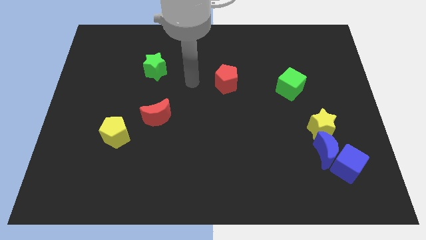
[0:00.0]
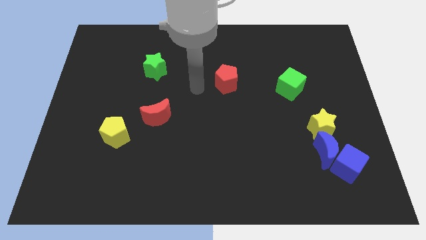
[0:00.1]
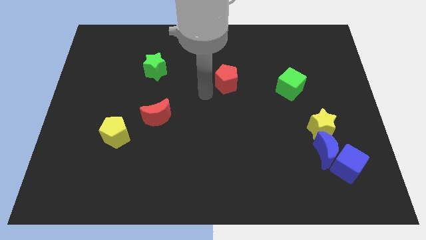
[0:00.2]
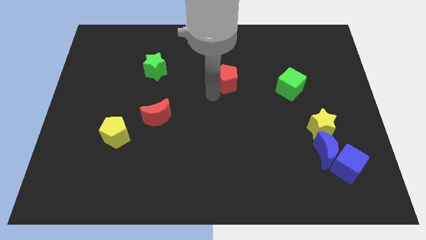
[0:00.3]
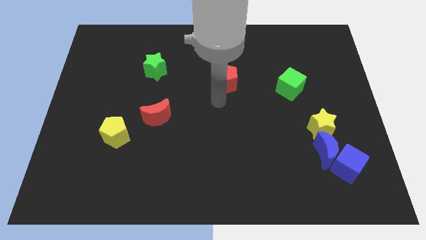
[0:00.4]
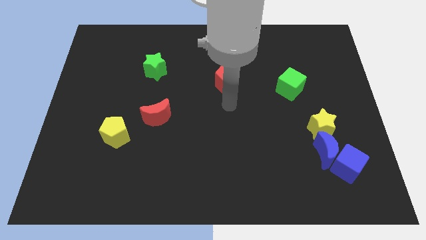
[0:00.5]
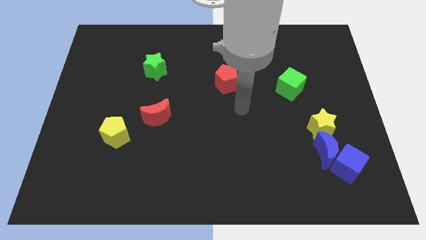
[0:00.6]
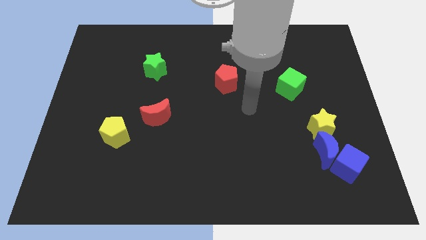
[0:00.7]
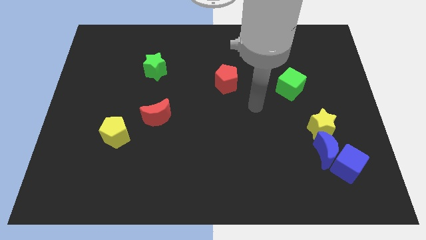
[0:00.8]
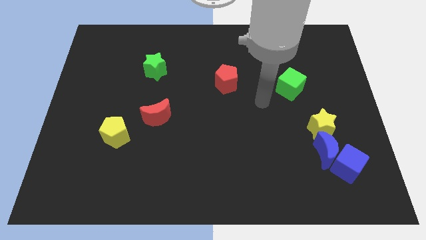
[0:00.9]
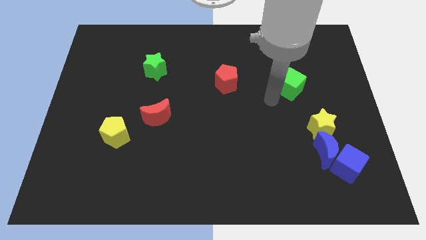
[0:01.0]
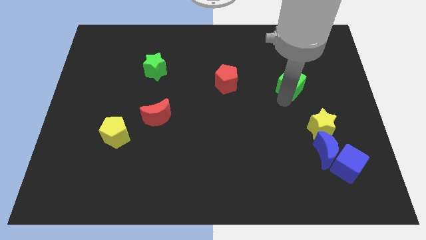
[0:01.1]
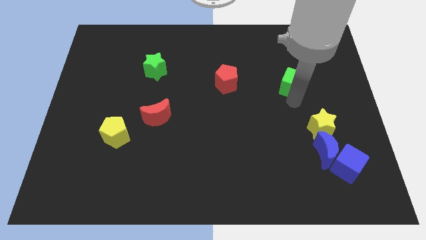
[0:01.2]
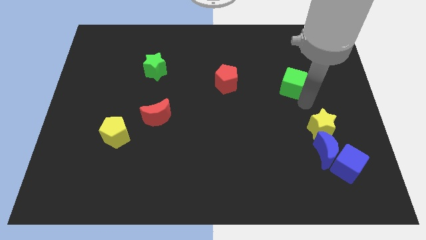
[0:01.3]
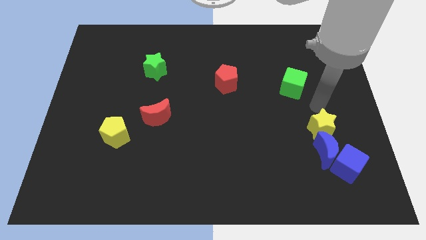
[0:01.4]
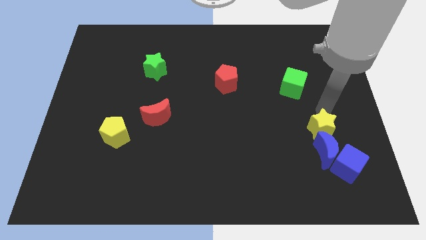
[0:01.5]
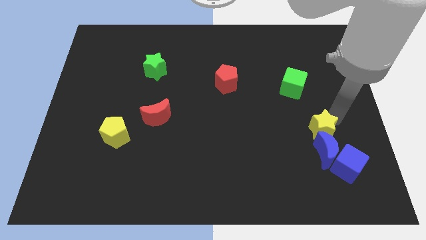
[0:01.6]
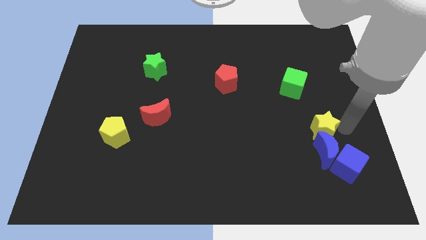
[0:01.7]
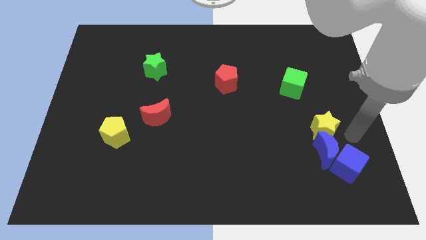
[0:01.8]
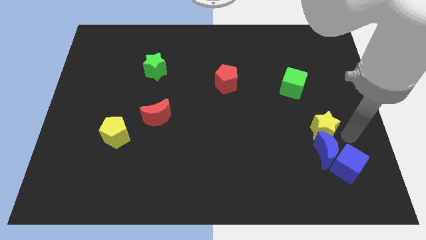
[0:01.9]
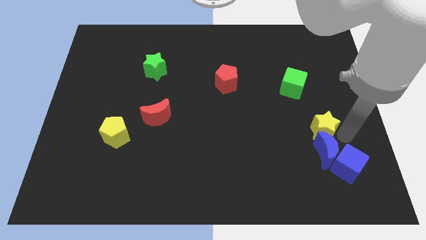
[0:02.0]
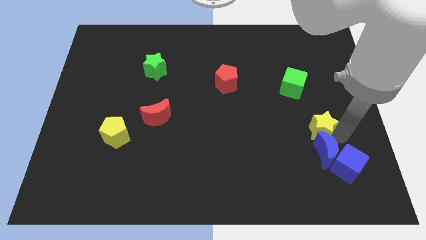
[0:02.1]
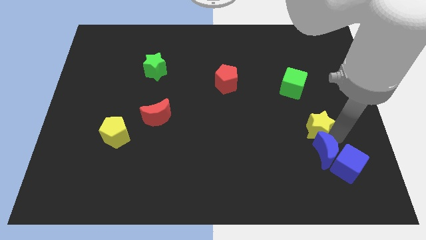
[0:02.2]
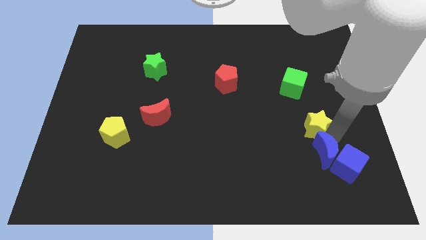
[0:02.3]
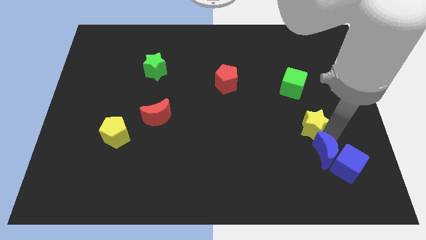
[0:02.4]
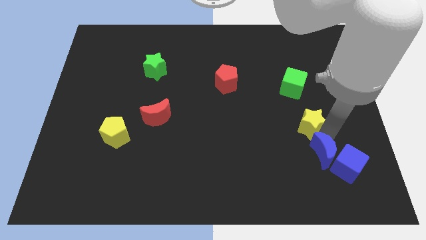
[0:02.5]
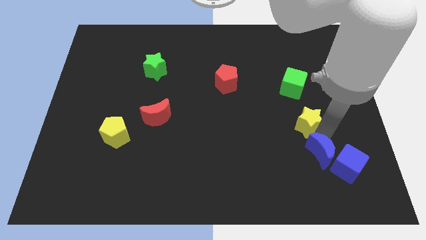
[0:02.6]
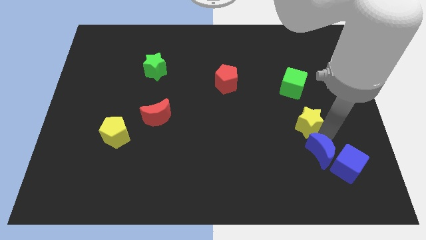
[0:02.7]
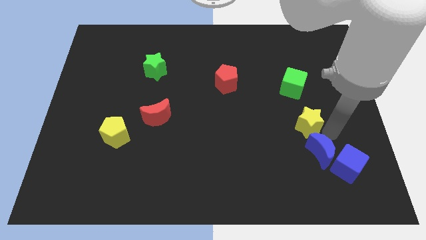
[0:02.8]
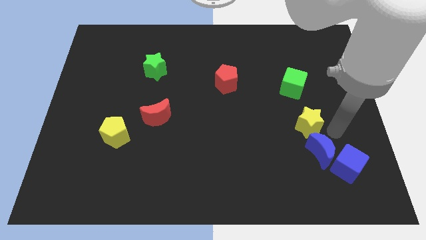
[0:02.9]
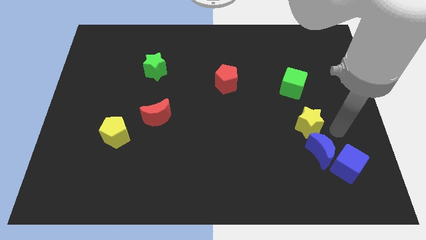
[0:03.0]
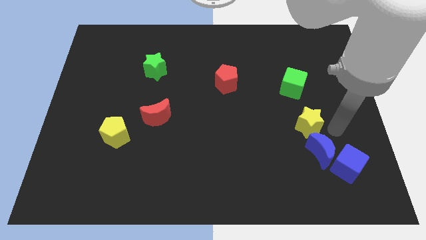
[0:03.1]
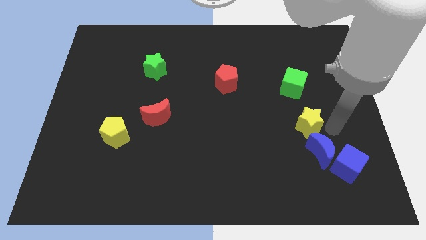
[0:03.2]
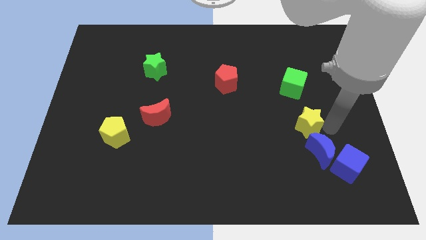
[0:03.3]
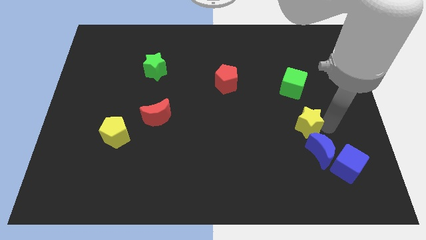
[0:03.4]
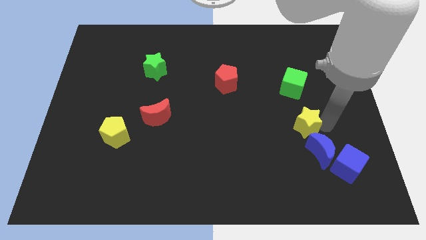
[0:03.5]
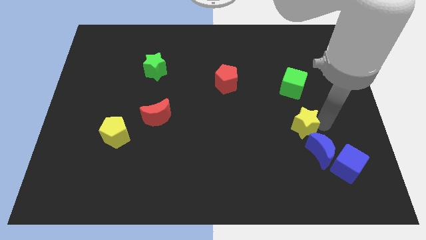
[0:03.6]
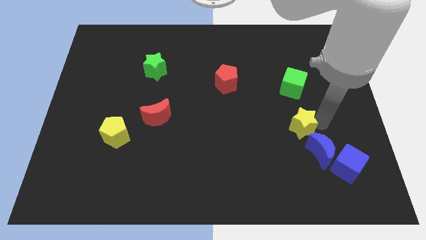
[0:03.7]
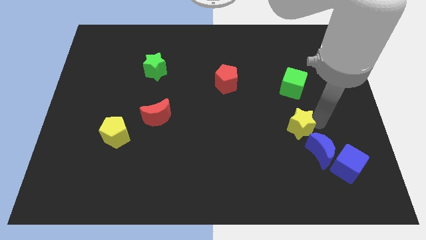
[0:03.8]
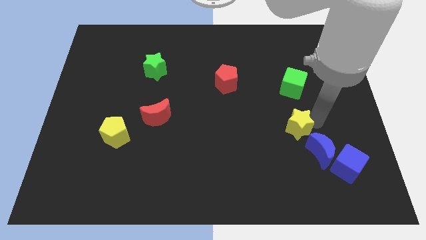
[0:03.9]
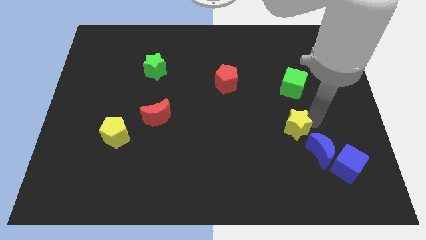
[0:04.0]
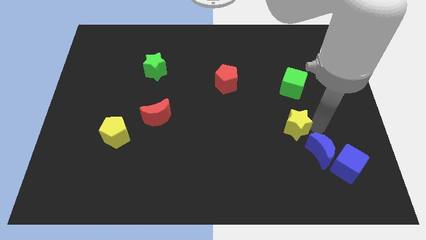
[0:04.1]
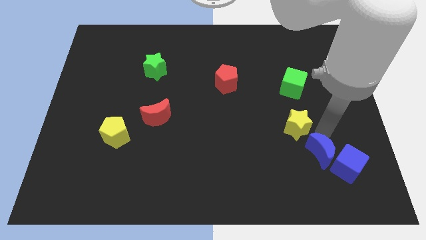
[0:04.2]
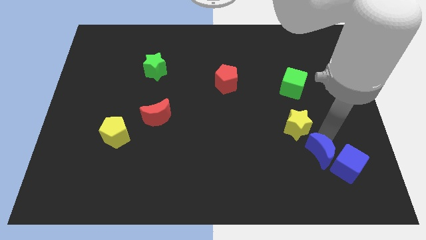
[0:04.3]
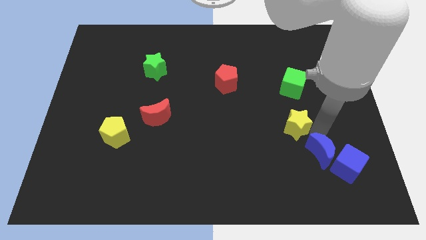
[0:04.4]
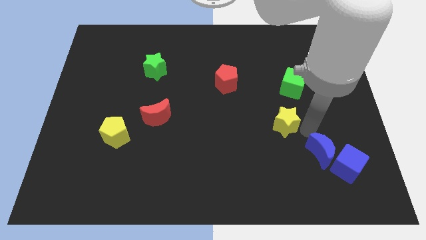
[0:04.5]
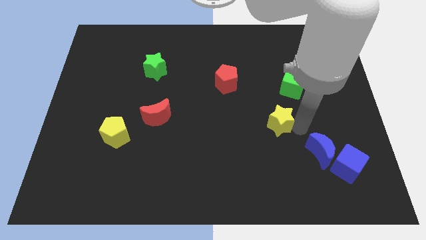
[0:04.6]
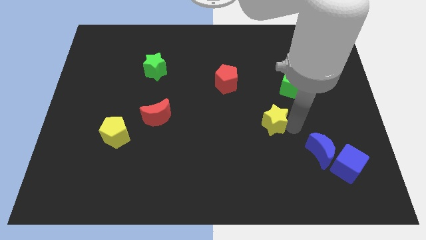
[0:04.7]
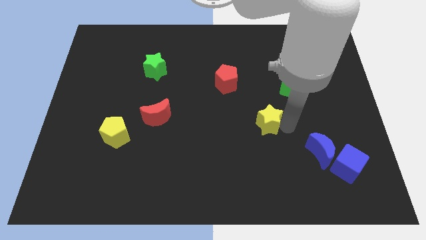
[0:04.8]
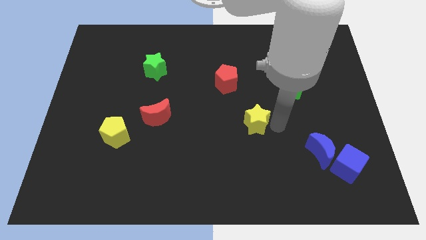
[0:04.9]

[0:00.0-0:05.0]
move the yellow star to the center of the board

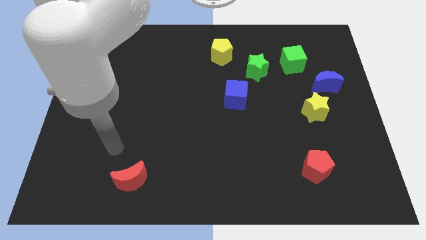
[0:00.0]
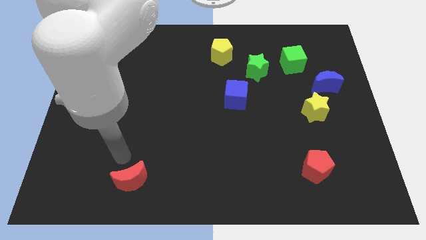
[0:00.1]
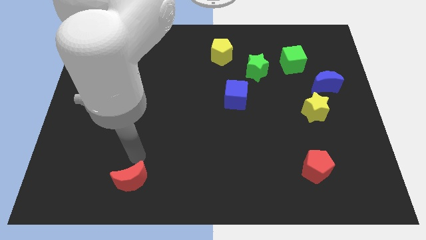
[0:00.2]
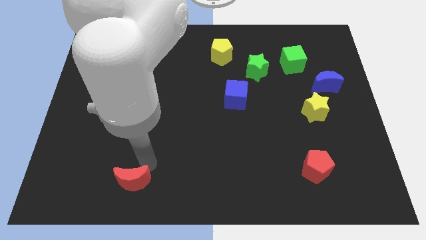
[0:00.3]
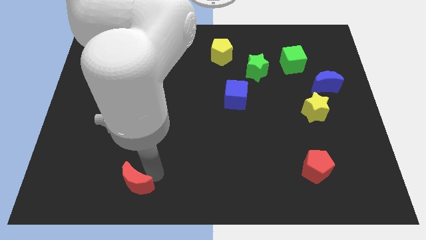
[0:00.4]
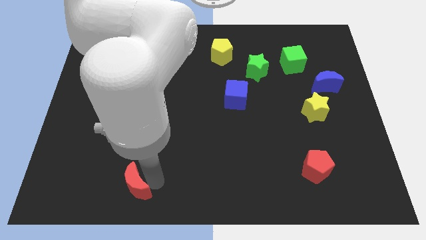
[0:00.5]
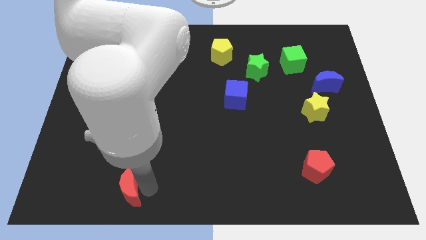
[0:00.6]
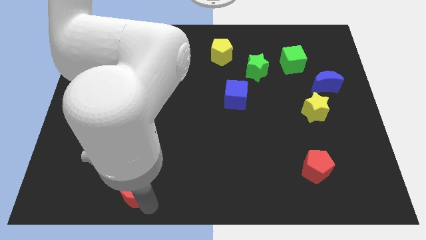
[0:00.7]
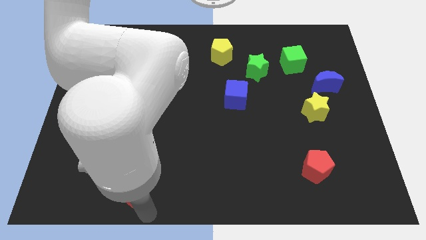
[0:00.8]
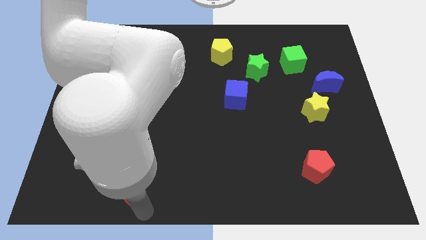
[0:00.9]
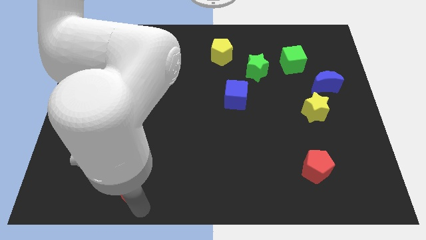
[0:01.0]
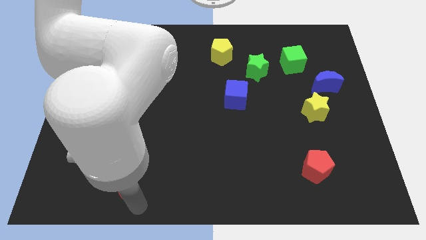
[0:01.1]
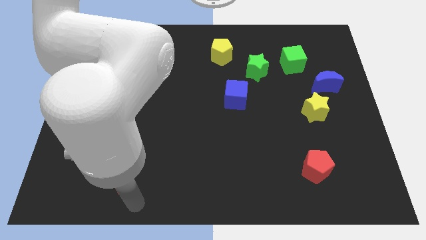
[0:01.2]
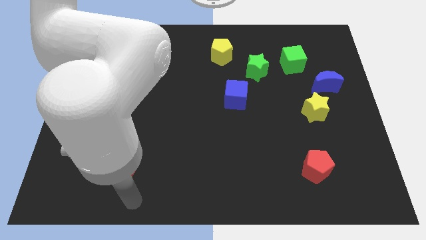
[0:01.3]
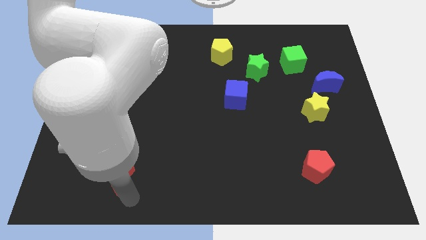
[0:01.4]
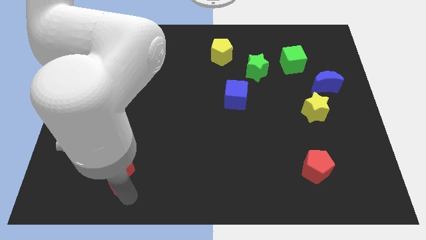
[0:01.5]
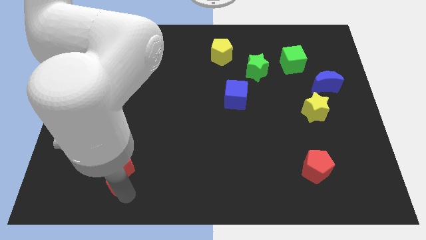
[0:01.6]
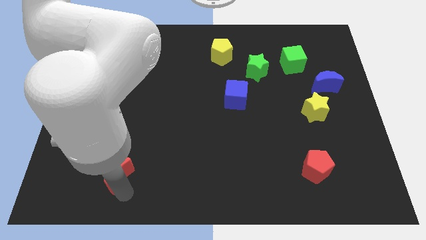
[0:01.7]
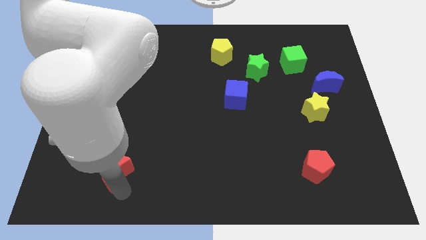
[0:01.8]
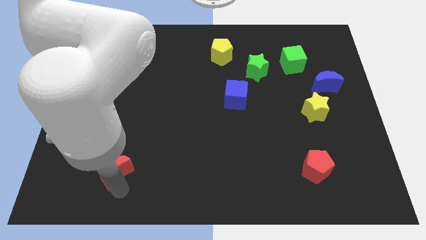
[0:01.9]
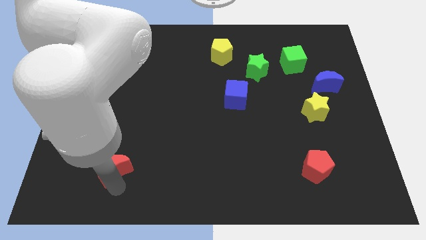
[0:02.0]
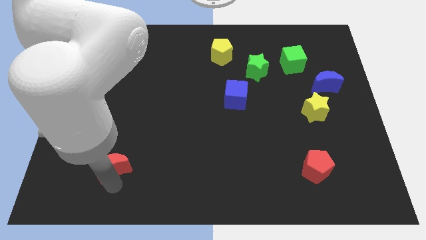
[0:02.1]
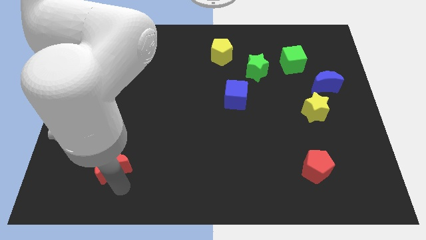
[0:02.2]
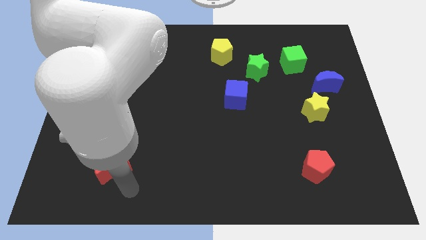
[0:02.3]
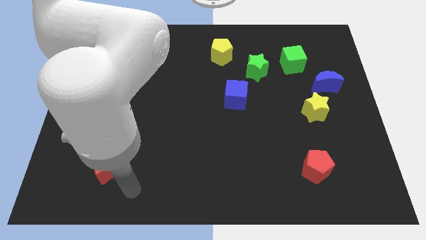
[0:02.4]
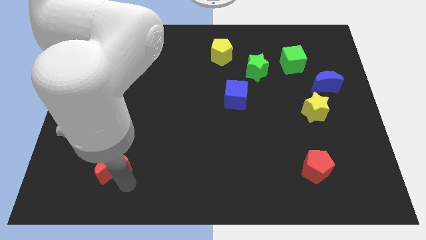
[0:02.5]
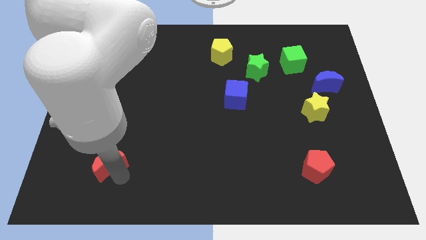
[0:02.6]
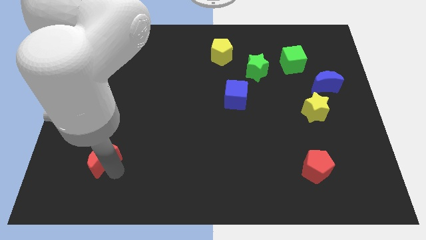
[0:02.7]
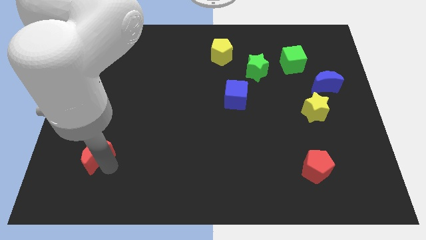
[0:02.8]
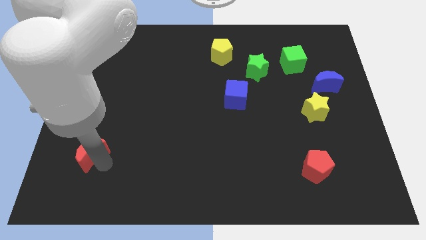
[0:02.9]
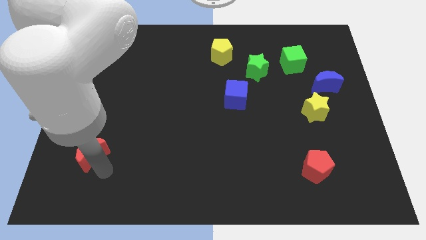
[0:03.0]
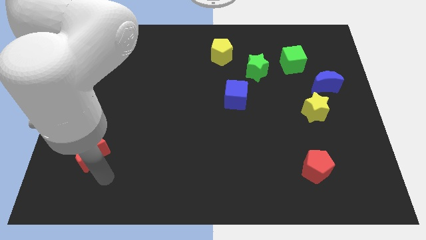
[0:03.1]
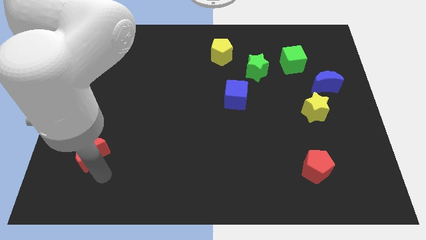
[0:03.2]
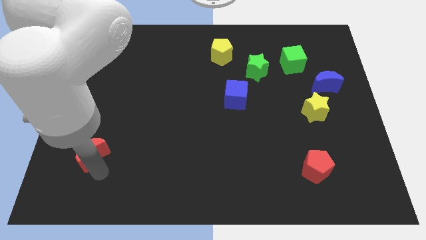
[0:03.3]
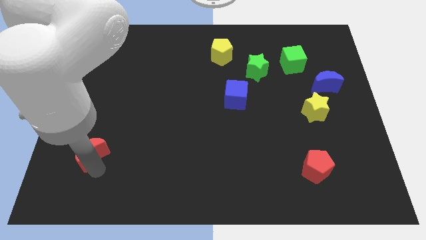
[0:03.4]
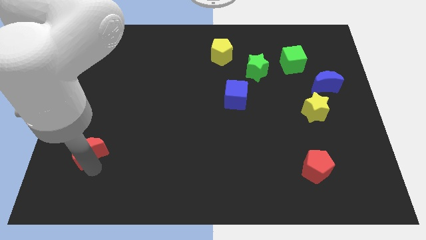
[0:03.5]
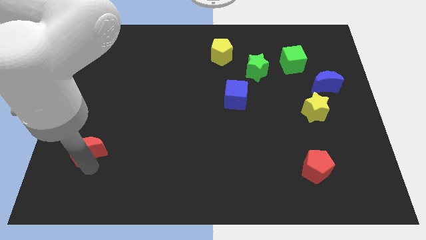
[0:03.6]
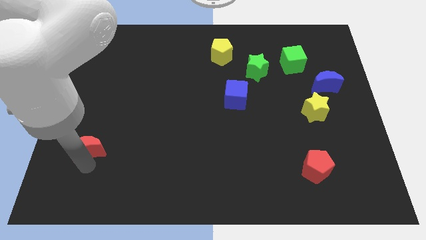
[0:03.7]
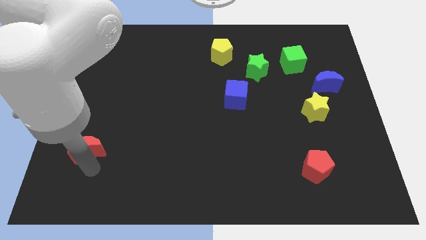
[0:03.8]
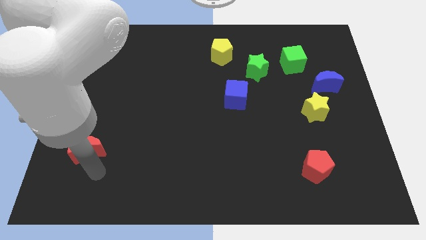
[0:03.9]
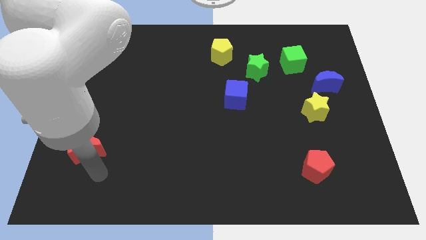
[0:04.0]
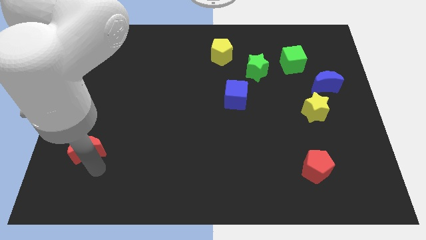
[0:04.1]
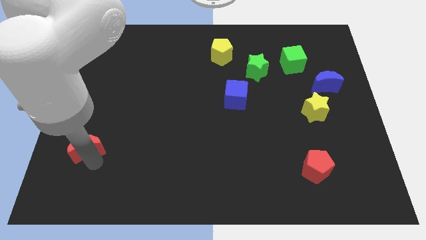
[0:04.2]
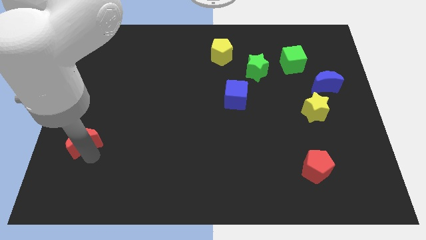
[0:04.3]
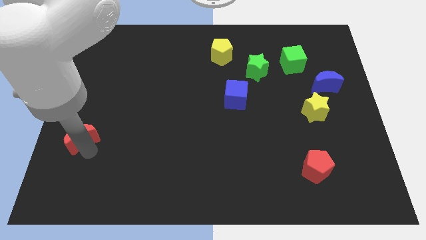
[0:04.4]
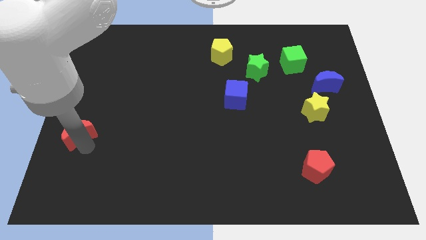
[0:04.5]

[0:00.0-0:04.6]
move the red moon to the center left
